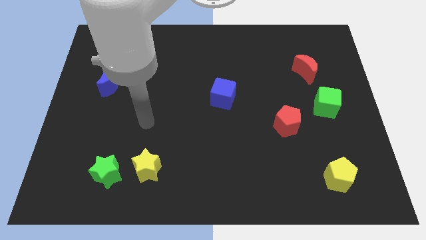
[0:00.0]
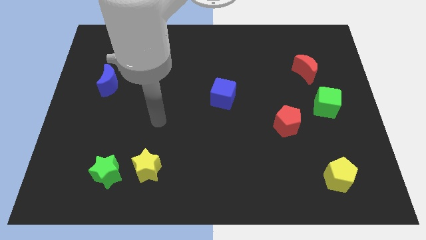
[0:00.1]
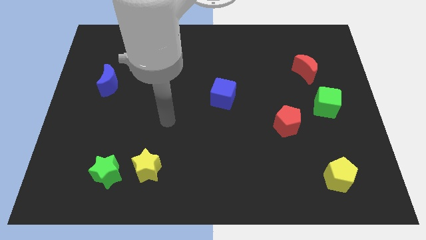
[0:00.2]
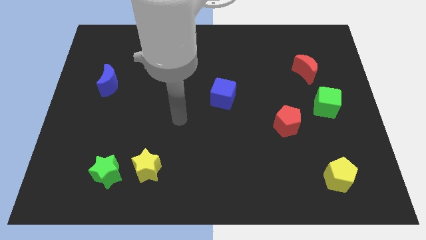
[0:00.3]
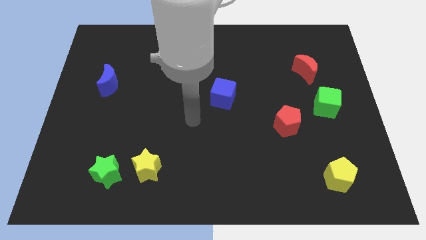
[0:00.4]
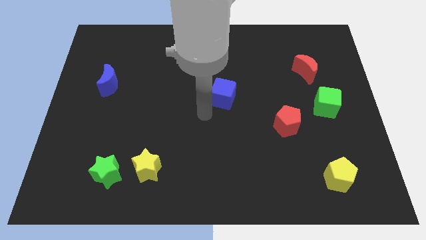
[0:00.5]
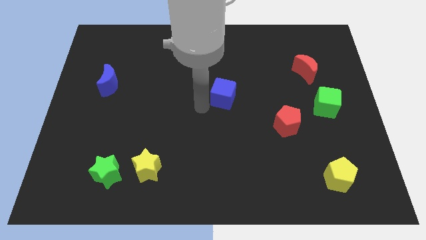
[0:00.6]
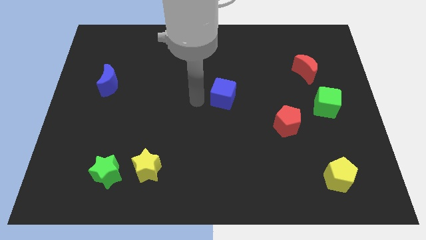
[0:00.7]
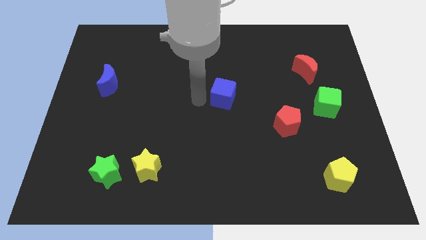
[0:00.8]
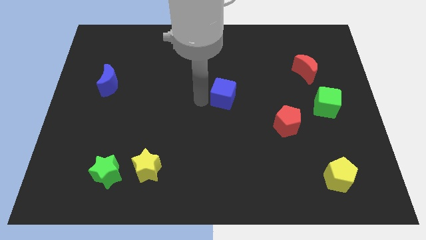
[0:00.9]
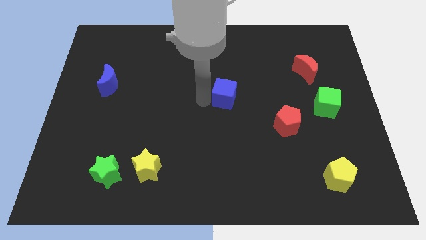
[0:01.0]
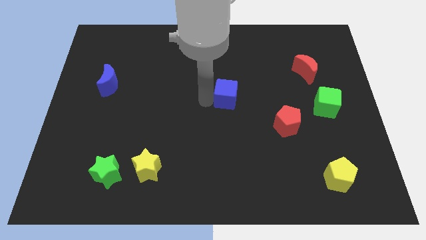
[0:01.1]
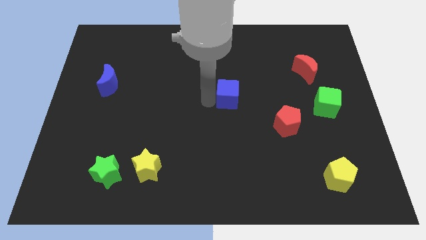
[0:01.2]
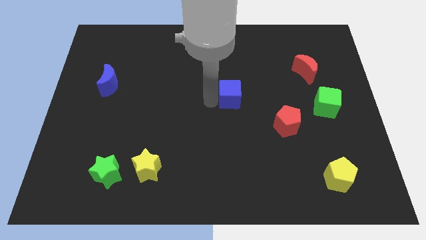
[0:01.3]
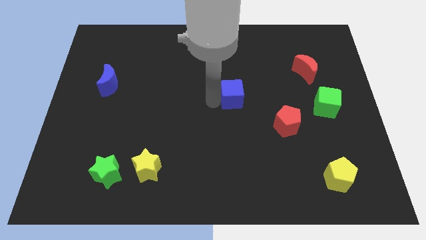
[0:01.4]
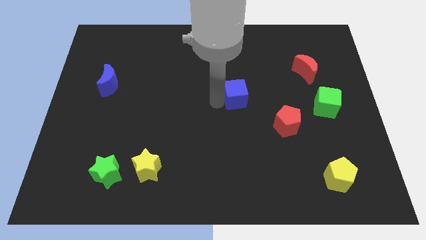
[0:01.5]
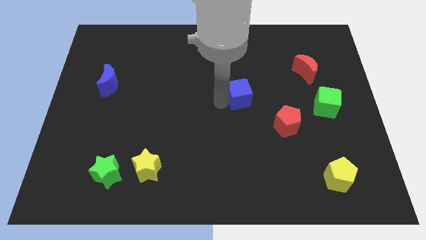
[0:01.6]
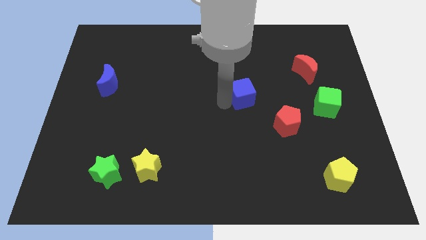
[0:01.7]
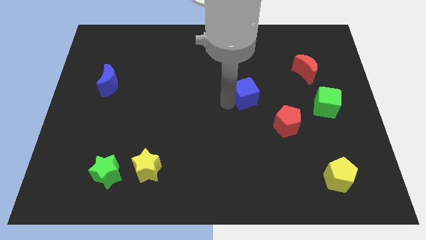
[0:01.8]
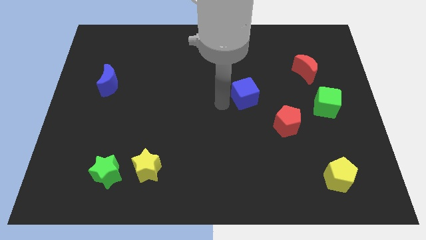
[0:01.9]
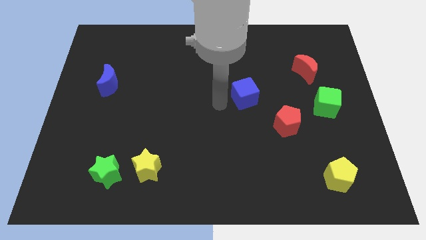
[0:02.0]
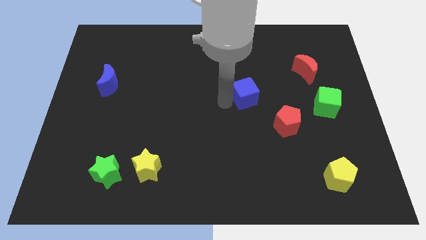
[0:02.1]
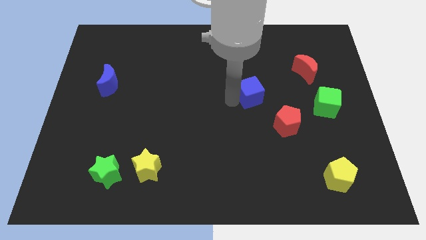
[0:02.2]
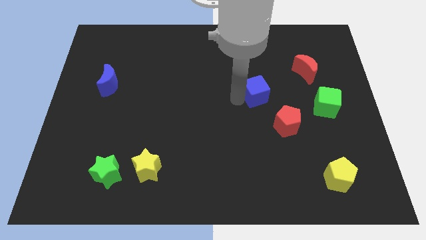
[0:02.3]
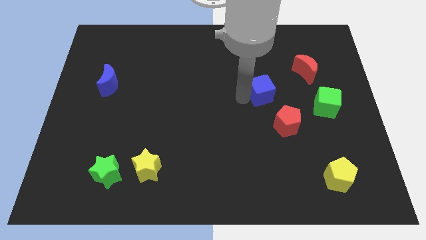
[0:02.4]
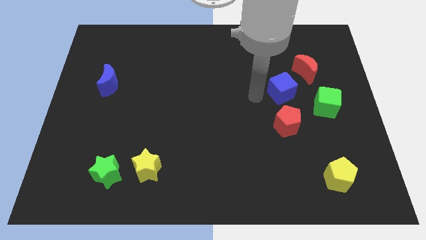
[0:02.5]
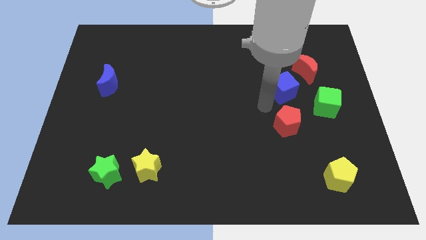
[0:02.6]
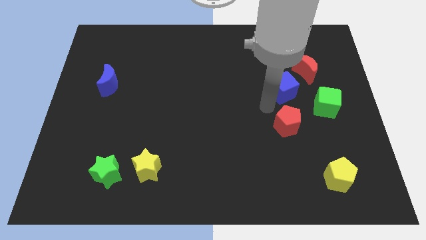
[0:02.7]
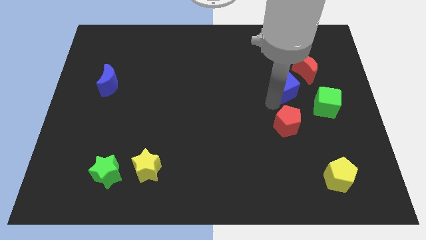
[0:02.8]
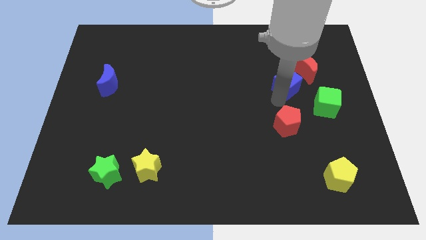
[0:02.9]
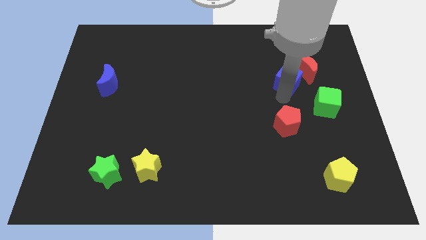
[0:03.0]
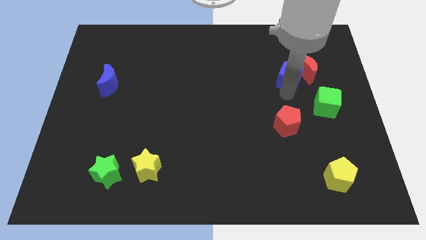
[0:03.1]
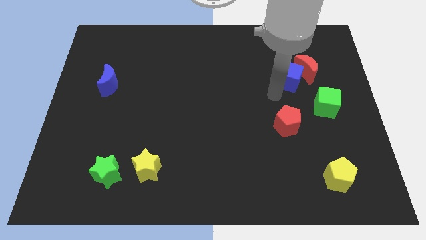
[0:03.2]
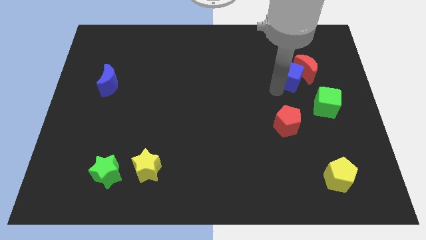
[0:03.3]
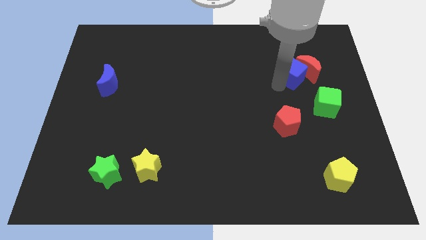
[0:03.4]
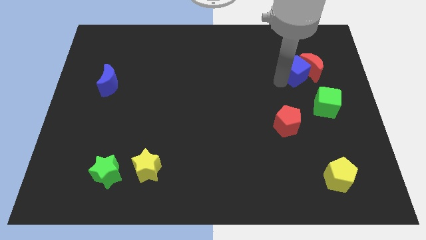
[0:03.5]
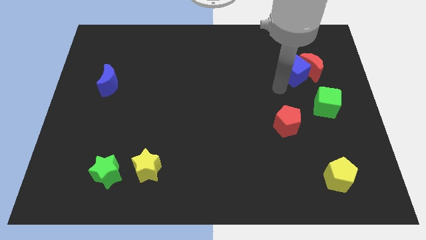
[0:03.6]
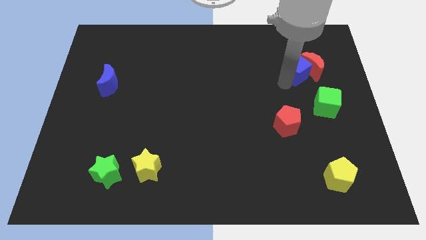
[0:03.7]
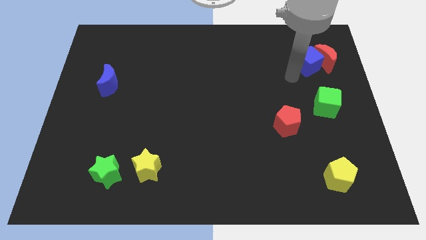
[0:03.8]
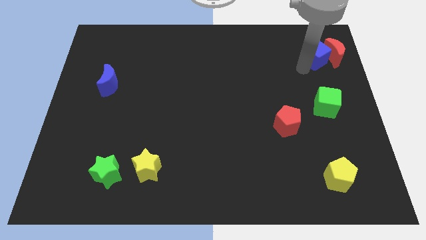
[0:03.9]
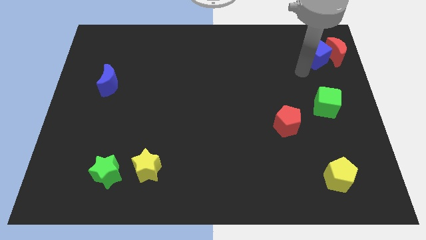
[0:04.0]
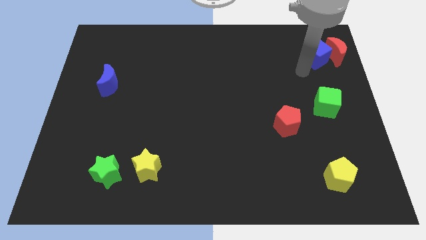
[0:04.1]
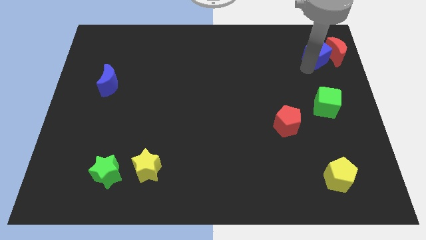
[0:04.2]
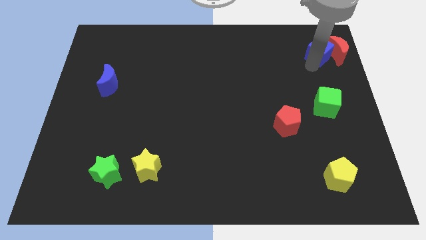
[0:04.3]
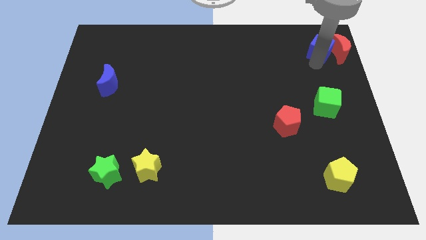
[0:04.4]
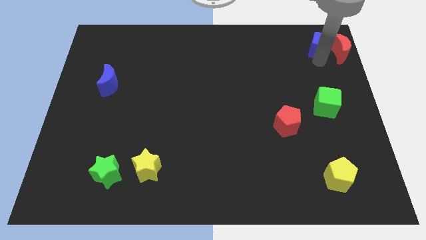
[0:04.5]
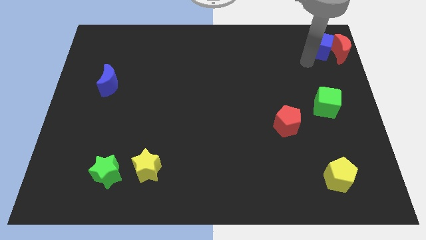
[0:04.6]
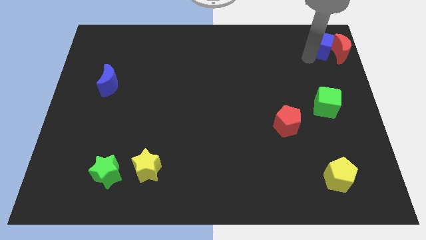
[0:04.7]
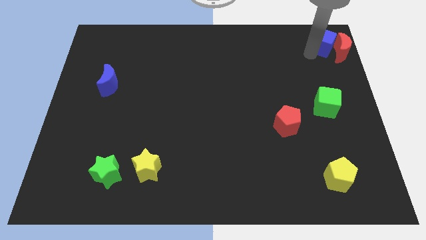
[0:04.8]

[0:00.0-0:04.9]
move the blue cube to the top right

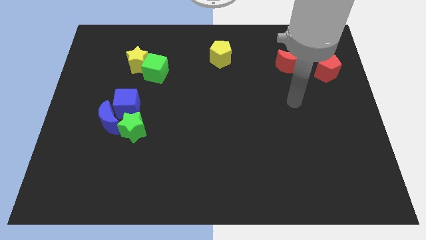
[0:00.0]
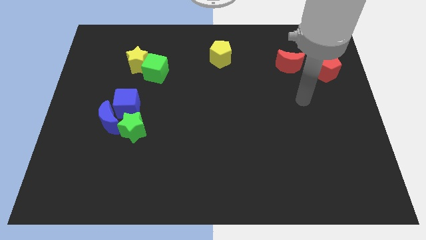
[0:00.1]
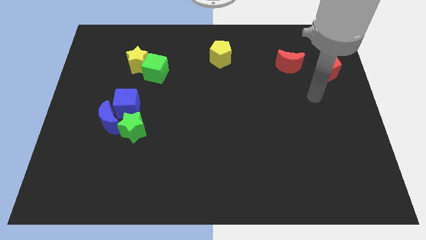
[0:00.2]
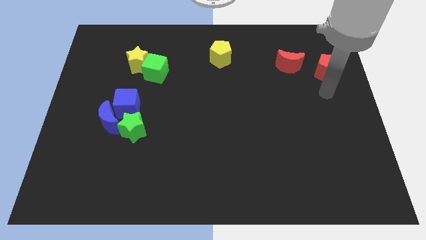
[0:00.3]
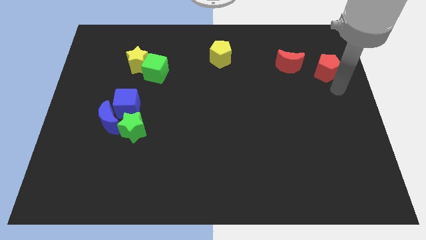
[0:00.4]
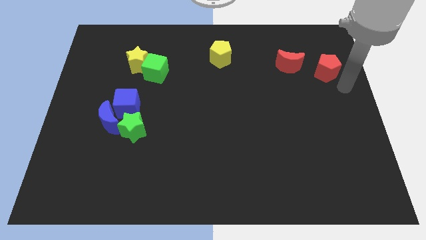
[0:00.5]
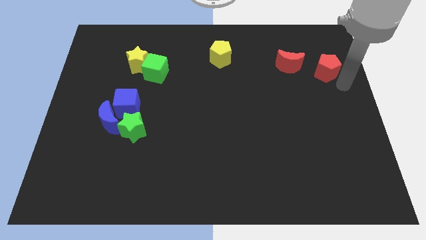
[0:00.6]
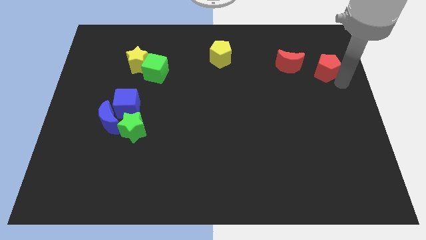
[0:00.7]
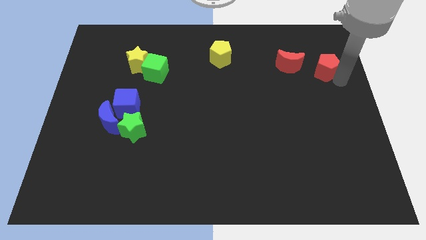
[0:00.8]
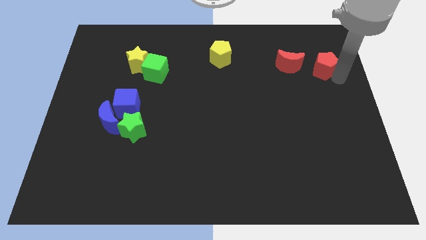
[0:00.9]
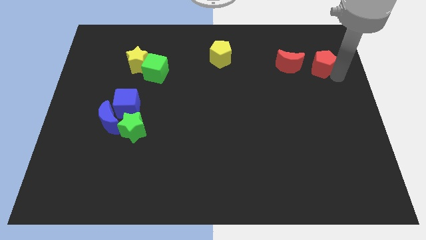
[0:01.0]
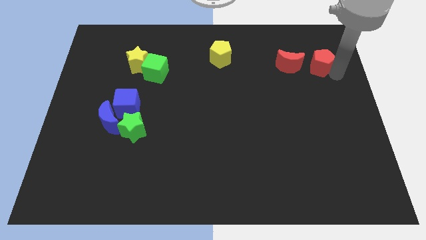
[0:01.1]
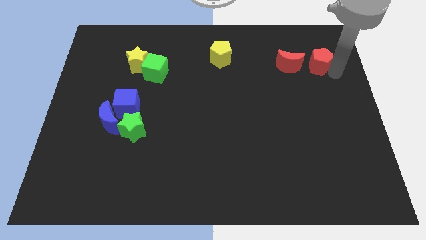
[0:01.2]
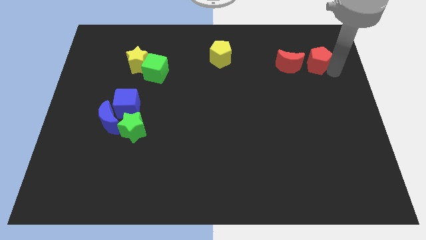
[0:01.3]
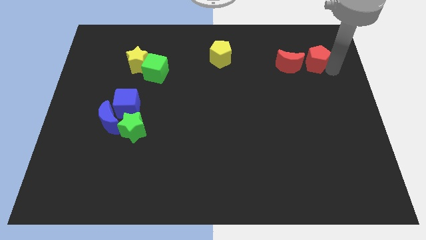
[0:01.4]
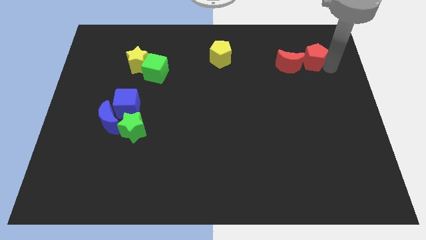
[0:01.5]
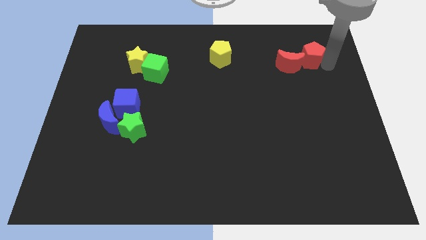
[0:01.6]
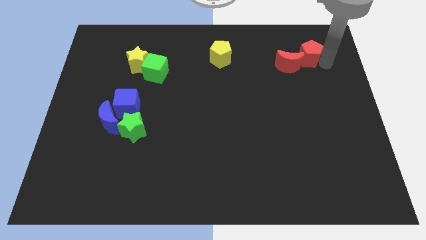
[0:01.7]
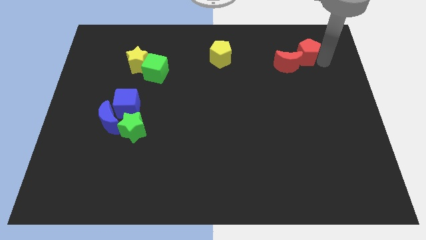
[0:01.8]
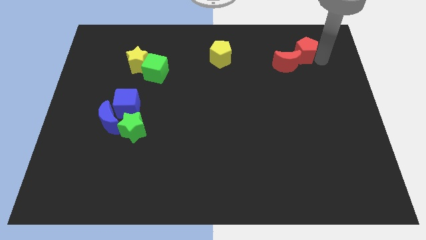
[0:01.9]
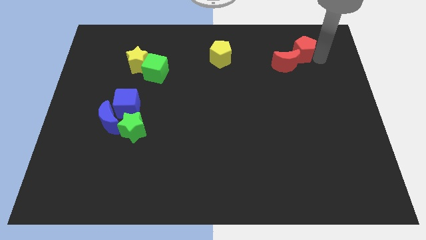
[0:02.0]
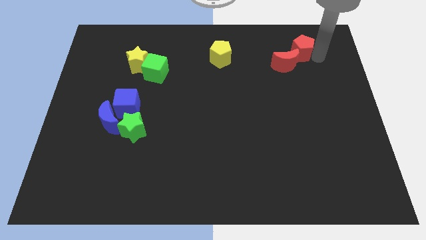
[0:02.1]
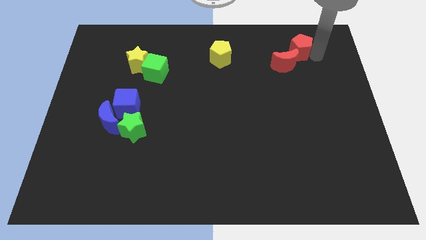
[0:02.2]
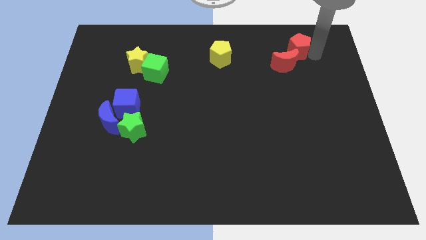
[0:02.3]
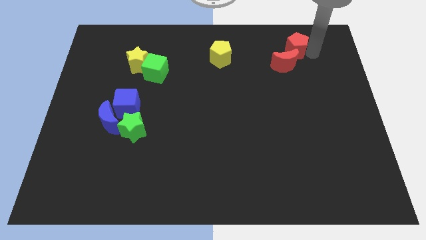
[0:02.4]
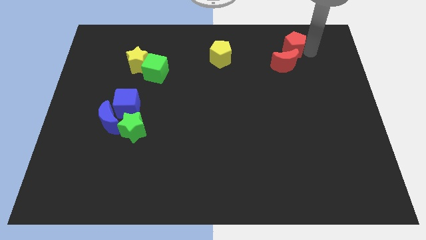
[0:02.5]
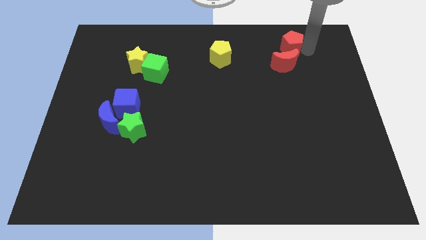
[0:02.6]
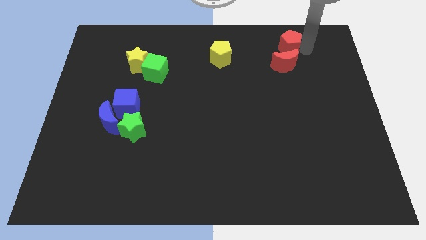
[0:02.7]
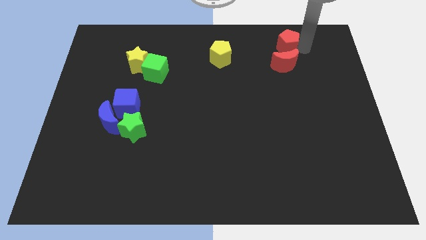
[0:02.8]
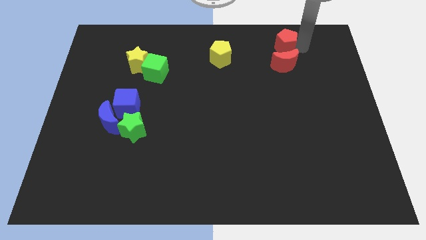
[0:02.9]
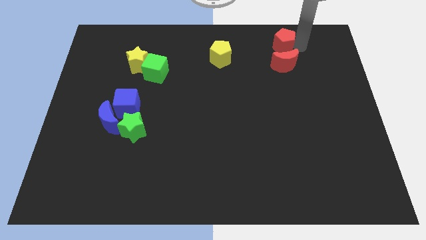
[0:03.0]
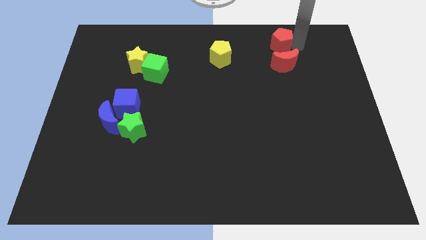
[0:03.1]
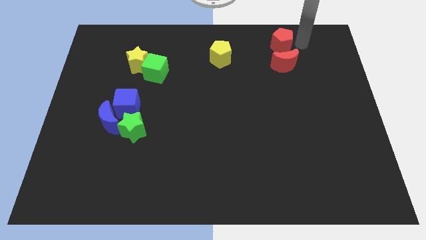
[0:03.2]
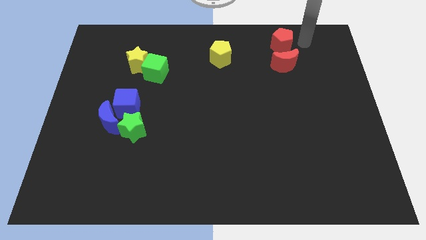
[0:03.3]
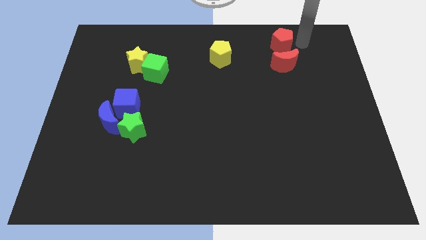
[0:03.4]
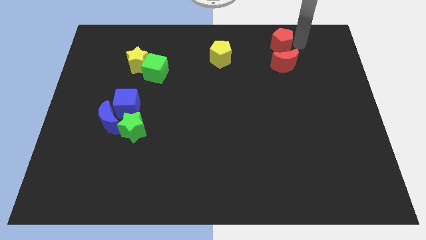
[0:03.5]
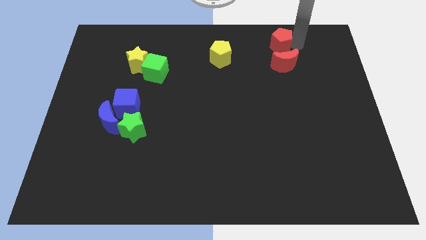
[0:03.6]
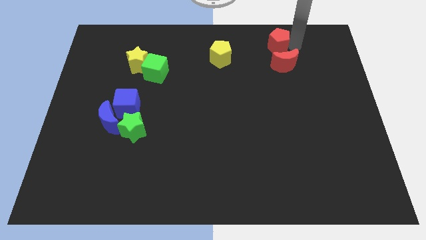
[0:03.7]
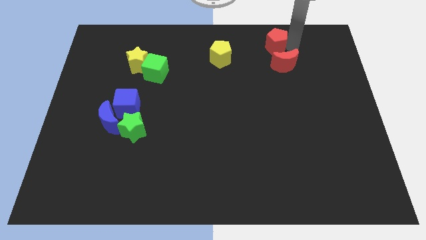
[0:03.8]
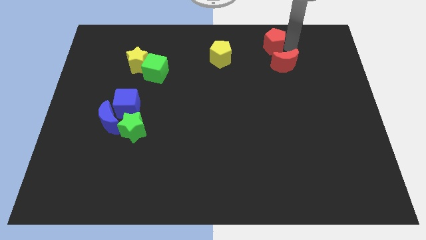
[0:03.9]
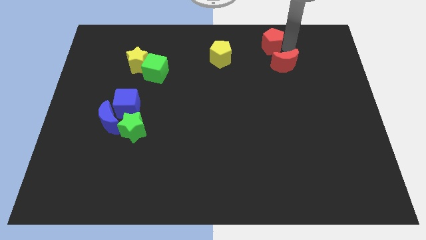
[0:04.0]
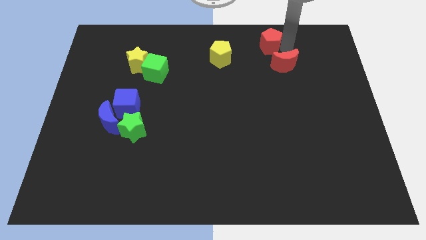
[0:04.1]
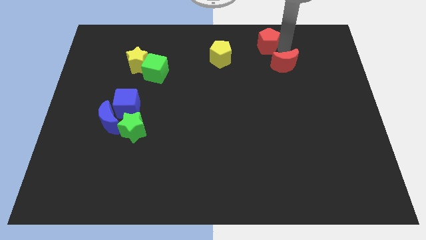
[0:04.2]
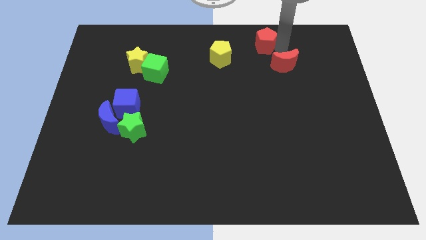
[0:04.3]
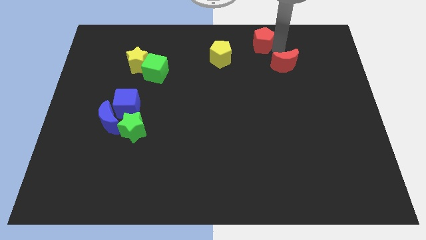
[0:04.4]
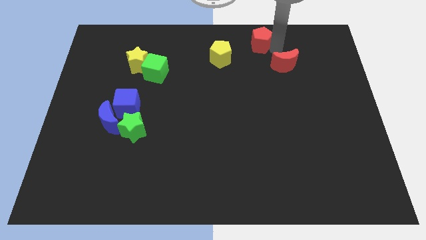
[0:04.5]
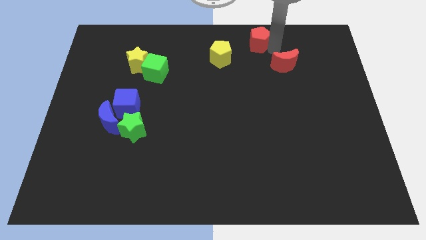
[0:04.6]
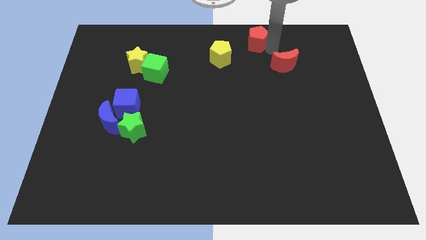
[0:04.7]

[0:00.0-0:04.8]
move the red pentagon to the towards your base
